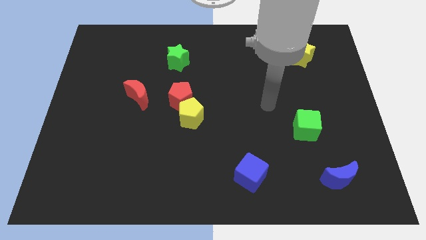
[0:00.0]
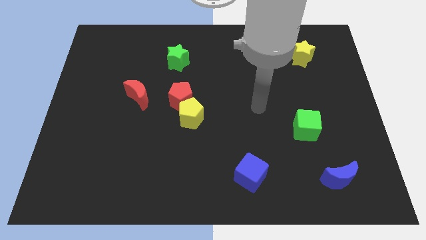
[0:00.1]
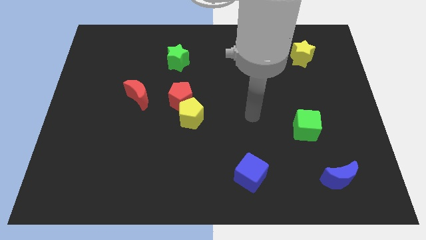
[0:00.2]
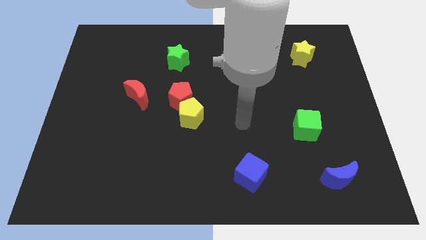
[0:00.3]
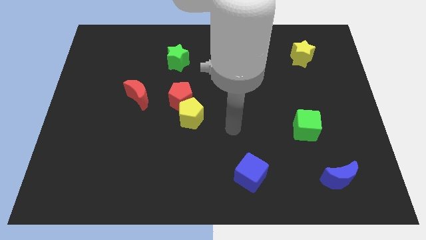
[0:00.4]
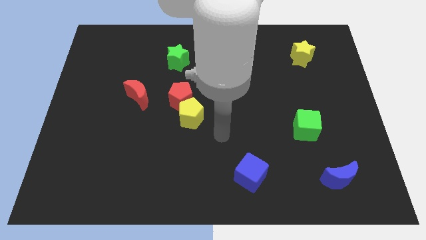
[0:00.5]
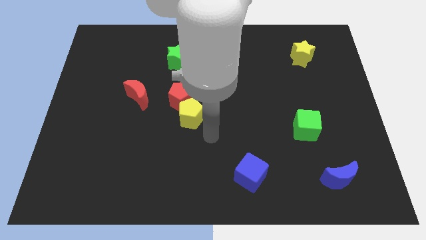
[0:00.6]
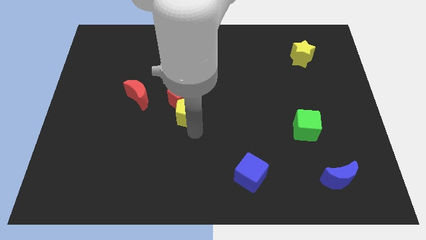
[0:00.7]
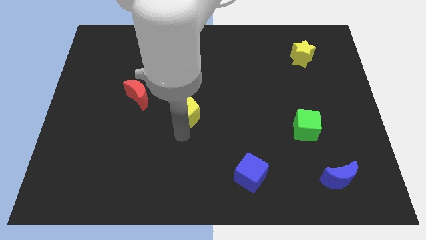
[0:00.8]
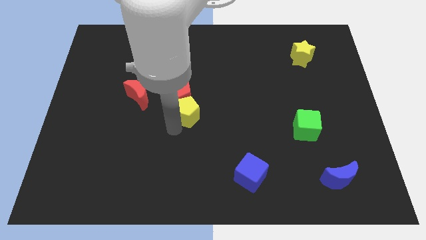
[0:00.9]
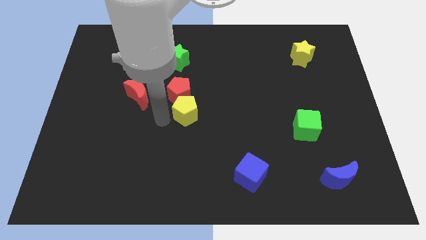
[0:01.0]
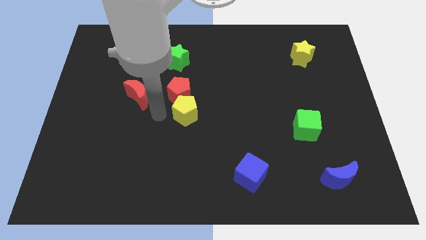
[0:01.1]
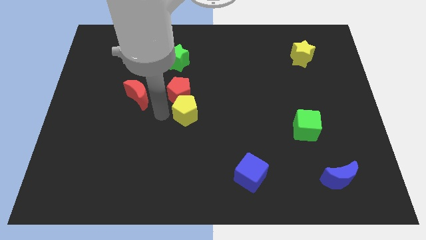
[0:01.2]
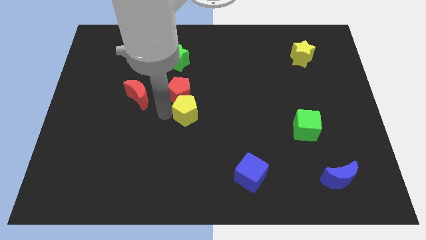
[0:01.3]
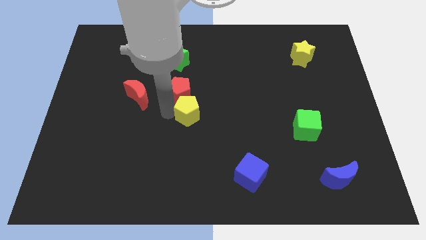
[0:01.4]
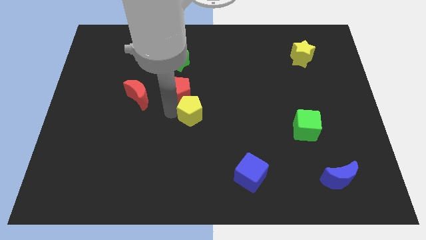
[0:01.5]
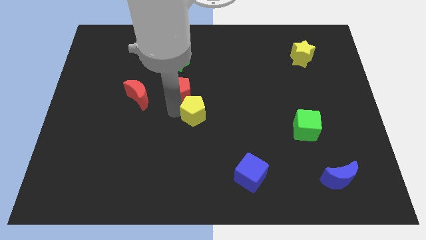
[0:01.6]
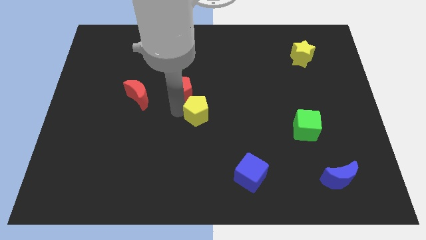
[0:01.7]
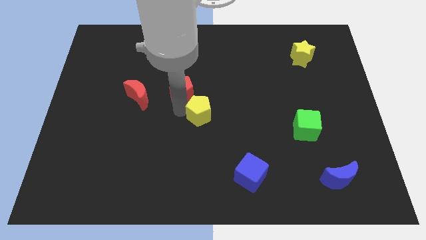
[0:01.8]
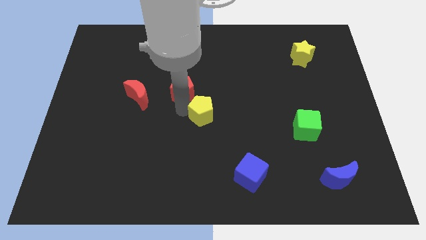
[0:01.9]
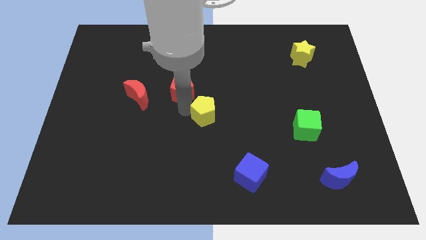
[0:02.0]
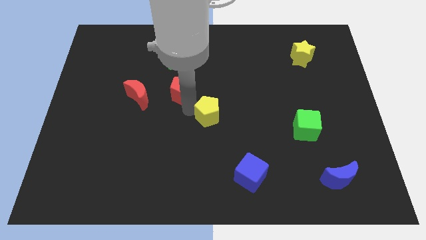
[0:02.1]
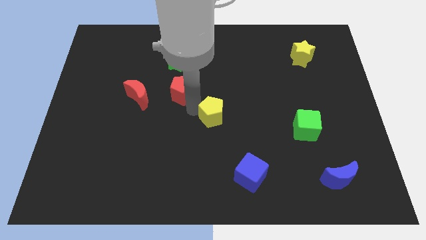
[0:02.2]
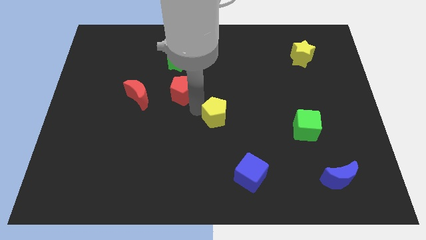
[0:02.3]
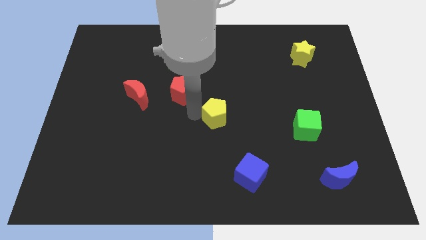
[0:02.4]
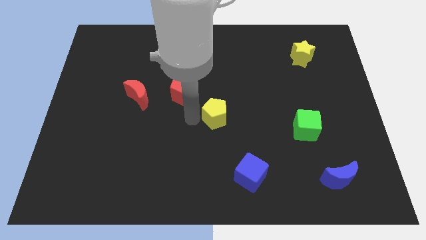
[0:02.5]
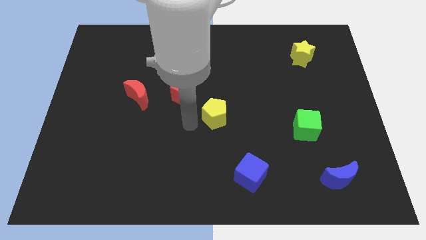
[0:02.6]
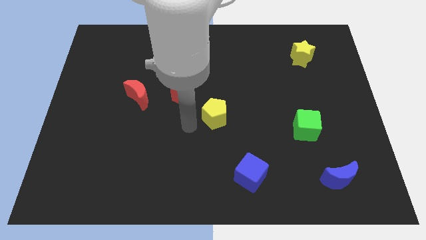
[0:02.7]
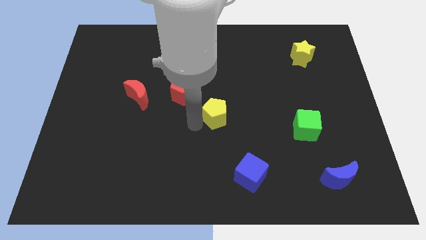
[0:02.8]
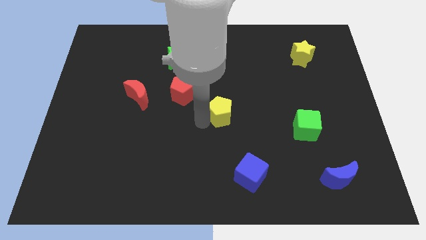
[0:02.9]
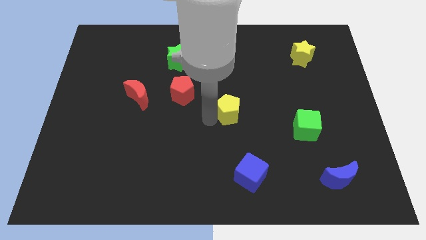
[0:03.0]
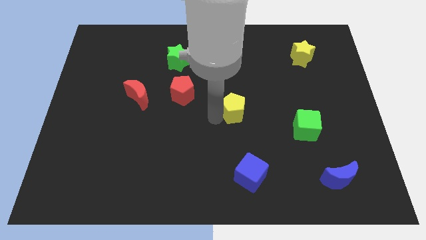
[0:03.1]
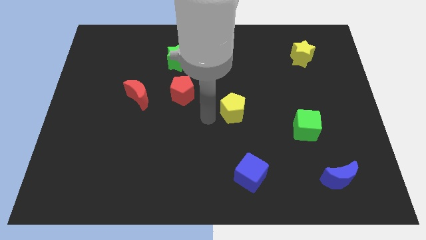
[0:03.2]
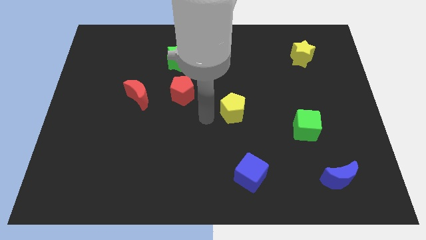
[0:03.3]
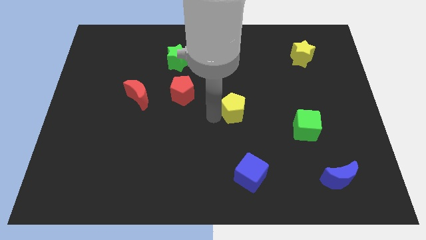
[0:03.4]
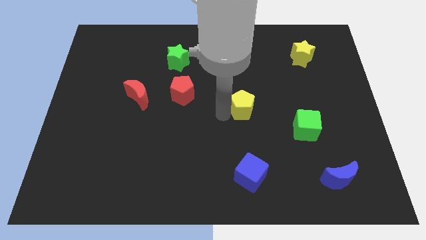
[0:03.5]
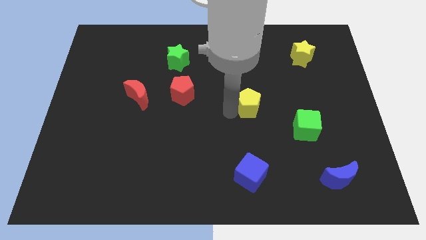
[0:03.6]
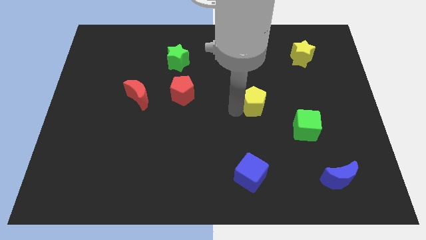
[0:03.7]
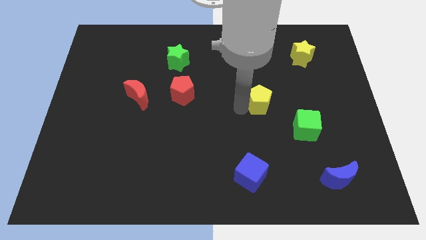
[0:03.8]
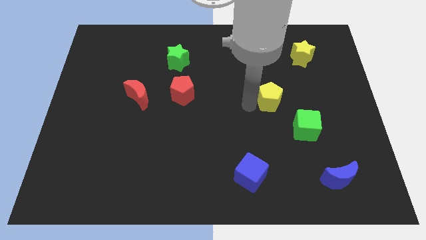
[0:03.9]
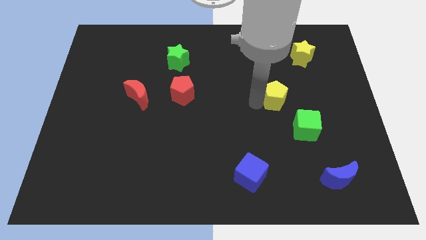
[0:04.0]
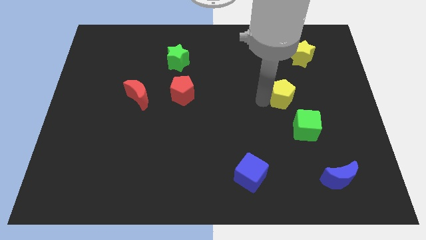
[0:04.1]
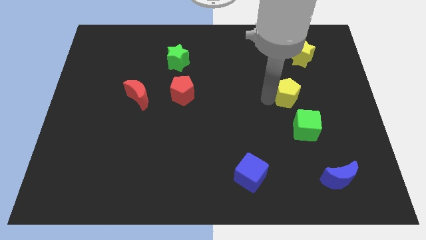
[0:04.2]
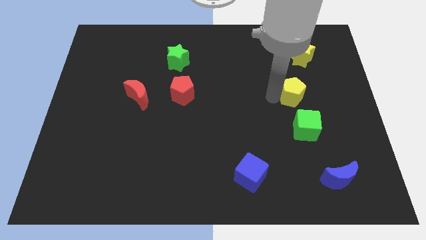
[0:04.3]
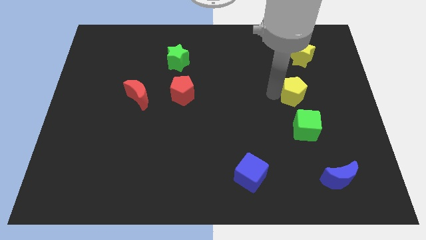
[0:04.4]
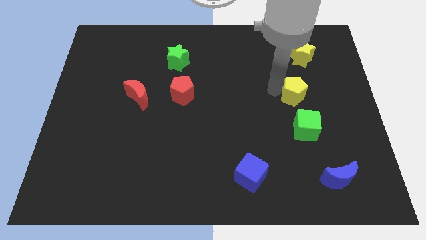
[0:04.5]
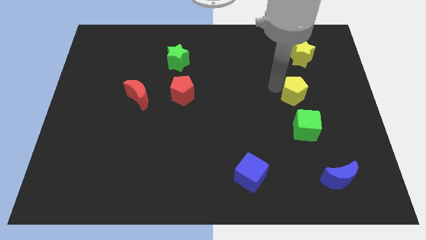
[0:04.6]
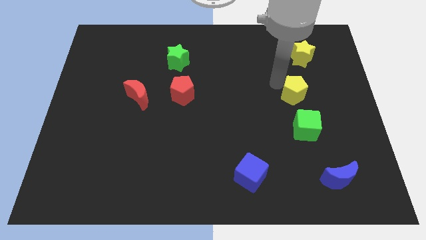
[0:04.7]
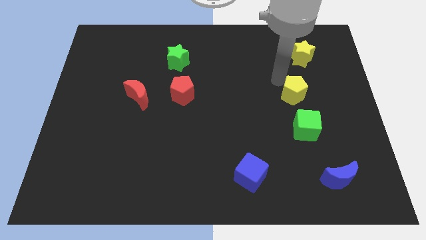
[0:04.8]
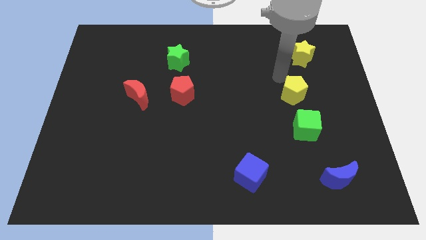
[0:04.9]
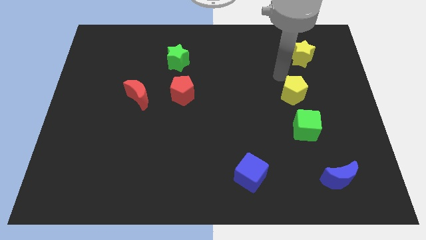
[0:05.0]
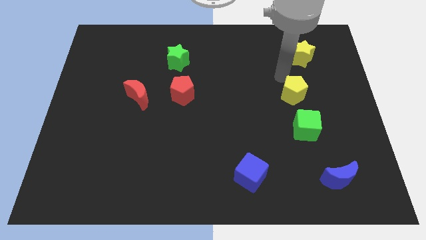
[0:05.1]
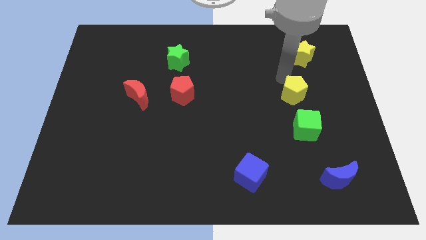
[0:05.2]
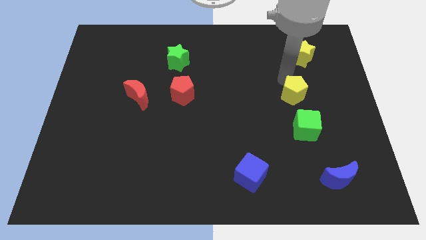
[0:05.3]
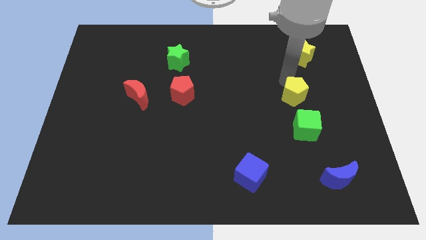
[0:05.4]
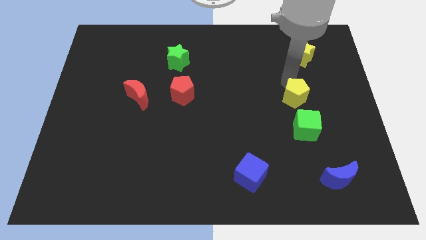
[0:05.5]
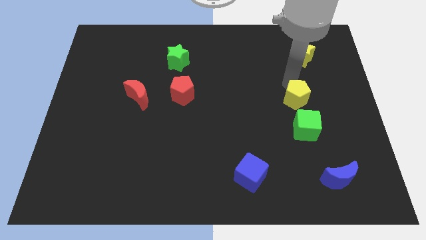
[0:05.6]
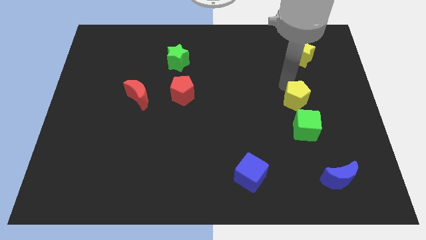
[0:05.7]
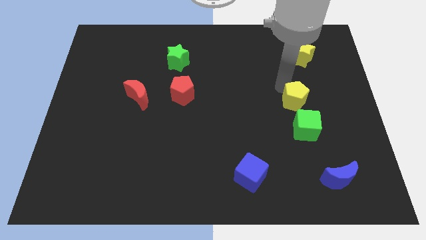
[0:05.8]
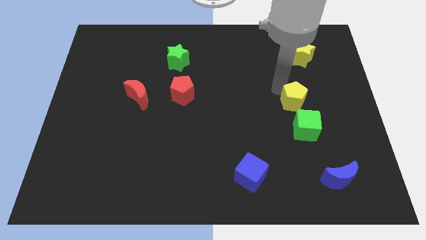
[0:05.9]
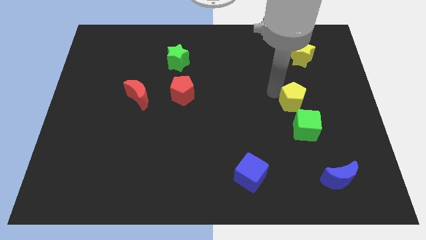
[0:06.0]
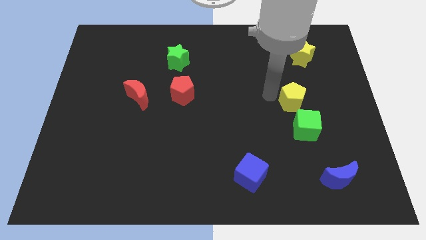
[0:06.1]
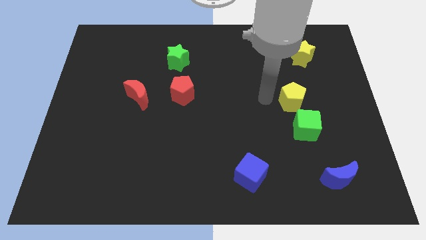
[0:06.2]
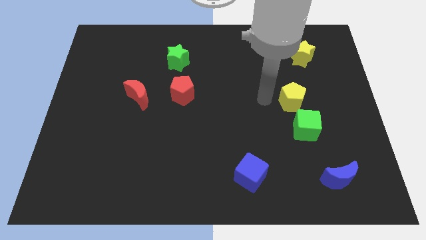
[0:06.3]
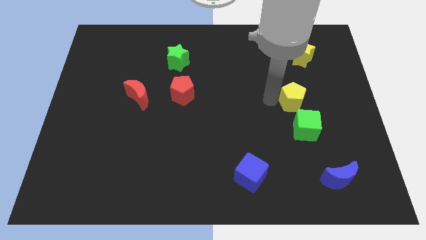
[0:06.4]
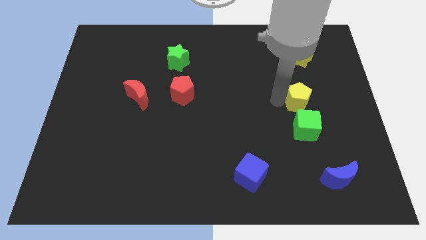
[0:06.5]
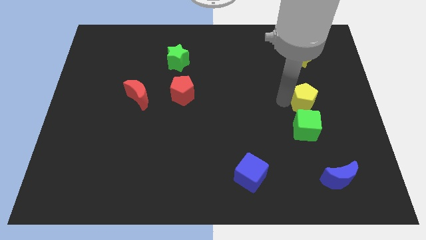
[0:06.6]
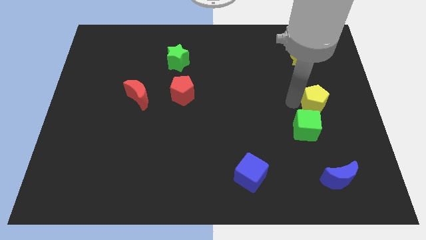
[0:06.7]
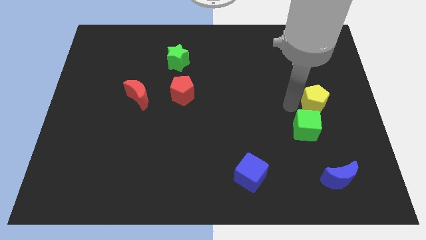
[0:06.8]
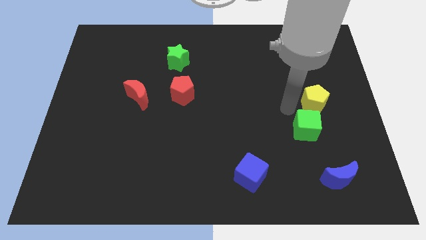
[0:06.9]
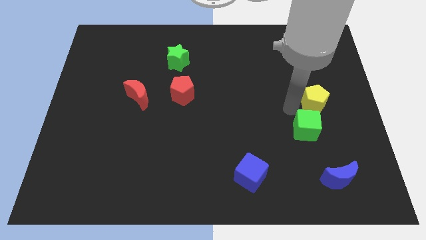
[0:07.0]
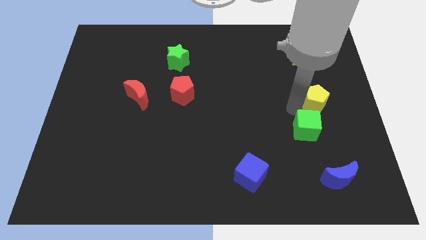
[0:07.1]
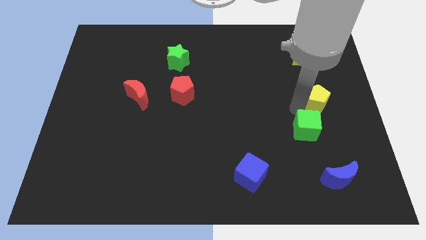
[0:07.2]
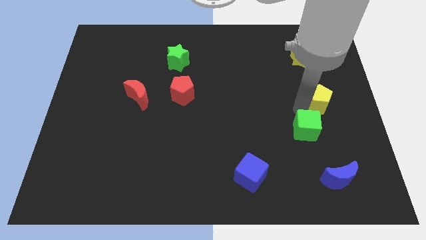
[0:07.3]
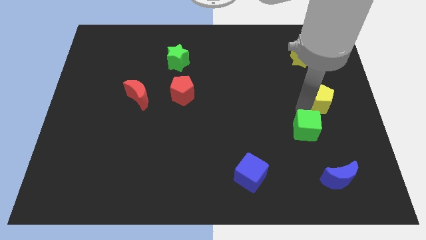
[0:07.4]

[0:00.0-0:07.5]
move the yellow pentagon to the center right
